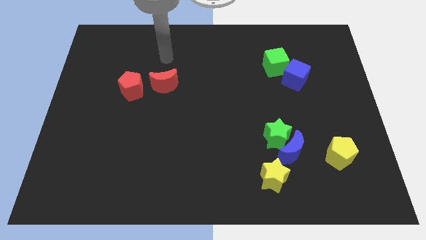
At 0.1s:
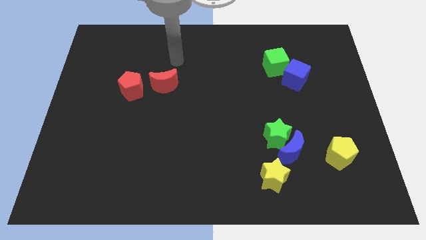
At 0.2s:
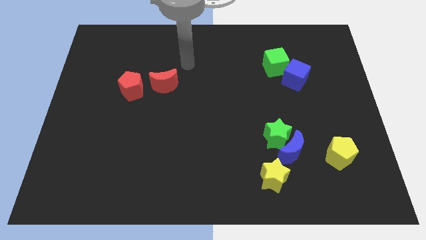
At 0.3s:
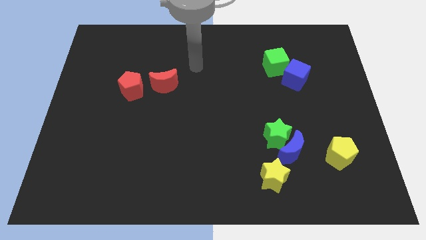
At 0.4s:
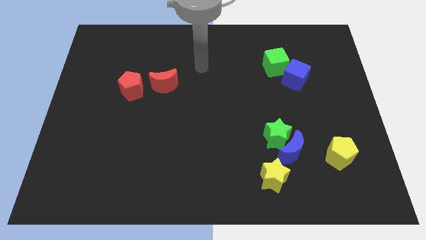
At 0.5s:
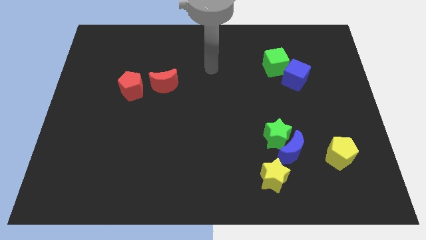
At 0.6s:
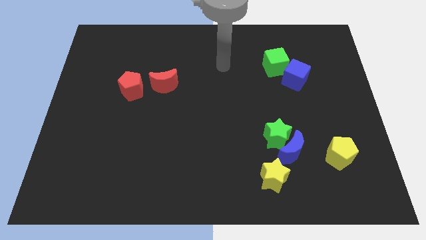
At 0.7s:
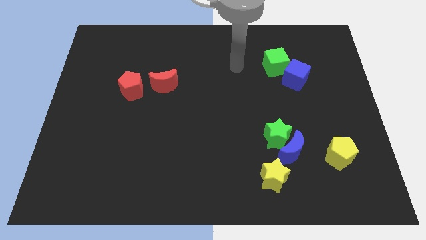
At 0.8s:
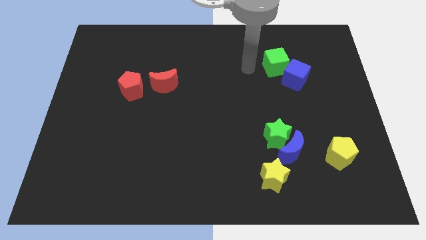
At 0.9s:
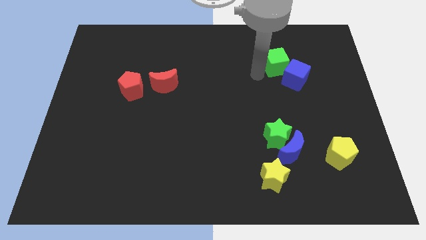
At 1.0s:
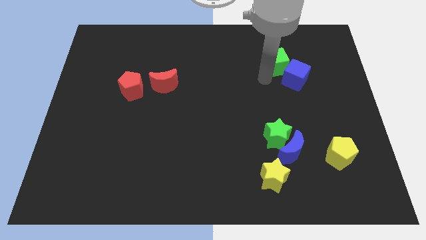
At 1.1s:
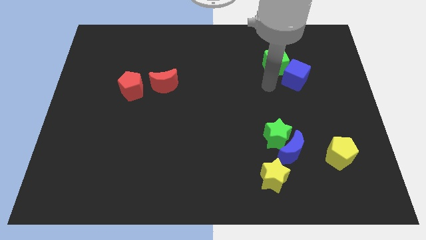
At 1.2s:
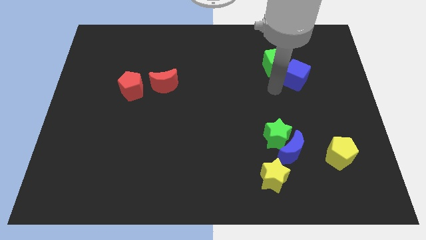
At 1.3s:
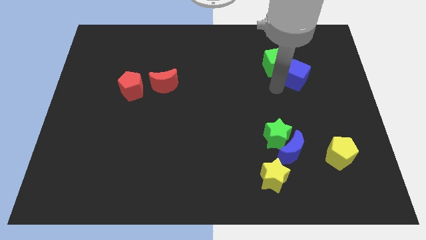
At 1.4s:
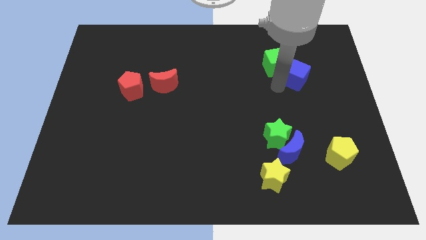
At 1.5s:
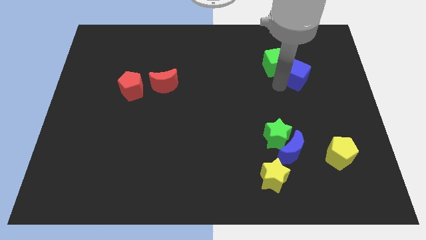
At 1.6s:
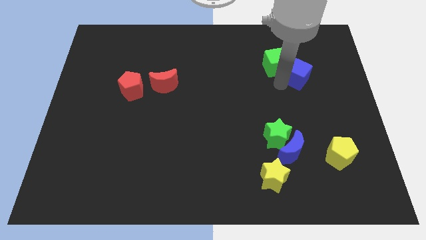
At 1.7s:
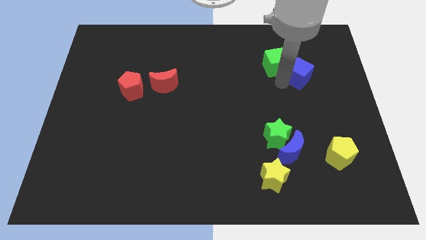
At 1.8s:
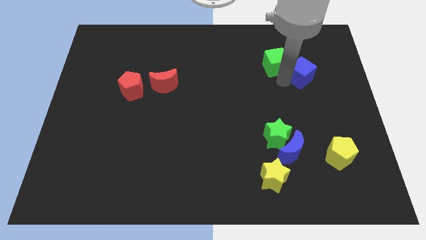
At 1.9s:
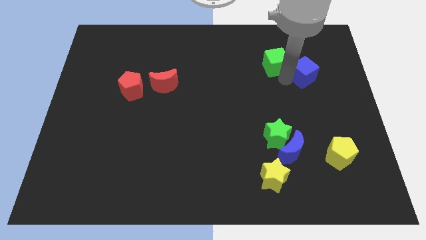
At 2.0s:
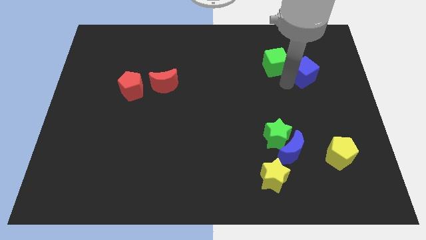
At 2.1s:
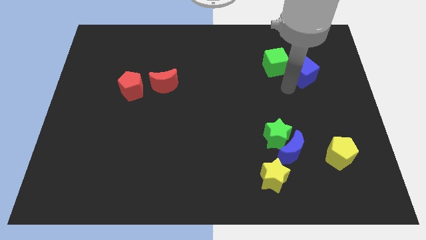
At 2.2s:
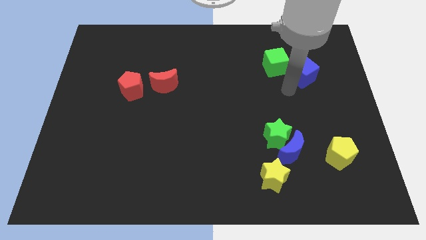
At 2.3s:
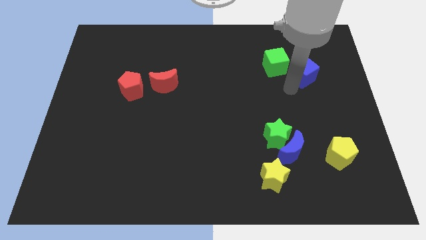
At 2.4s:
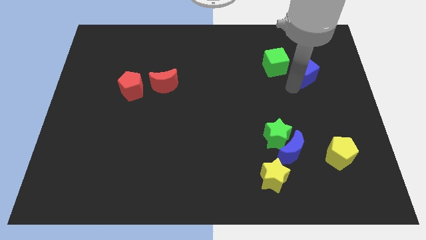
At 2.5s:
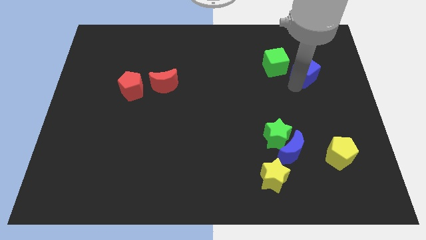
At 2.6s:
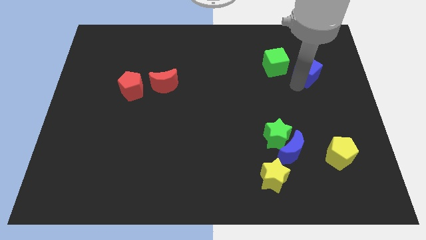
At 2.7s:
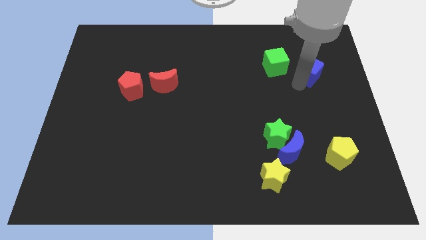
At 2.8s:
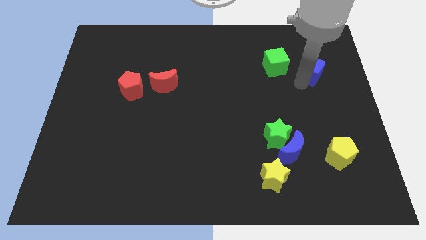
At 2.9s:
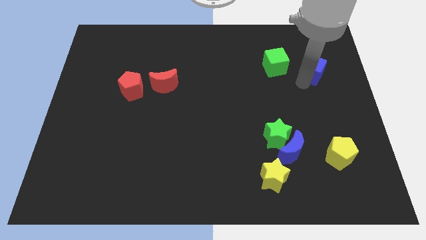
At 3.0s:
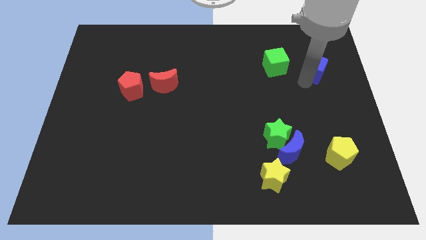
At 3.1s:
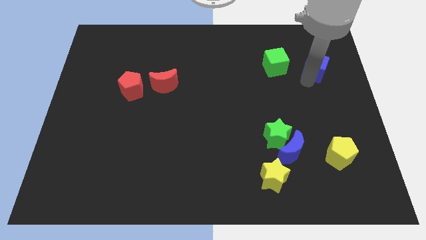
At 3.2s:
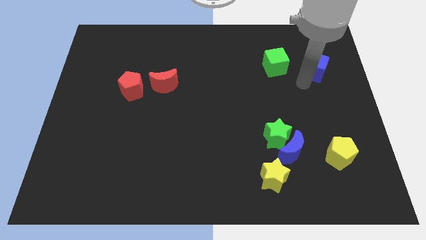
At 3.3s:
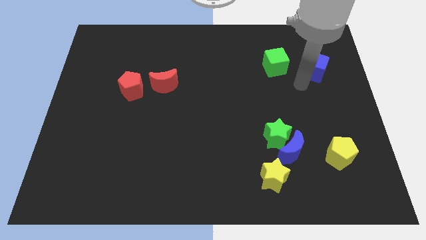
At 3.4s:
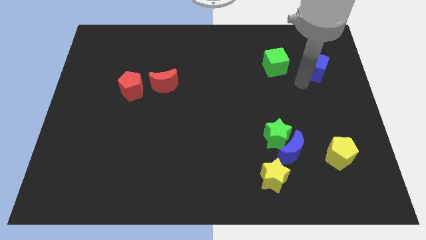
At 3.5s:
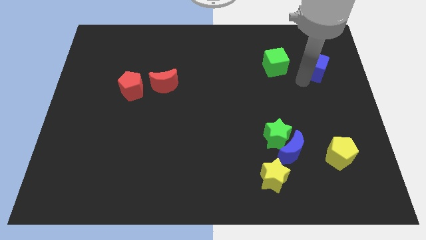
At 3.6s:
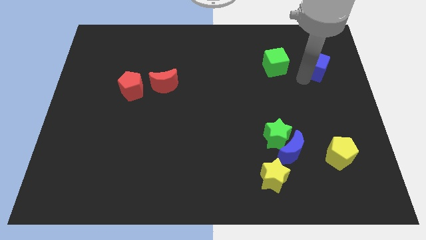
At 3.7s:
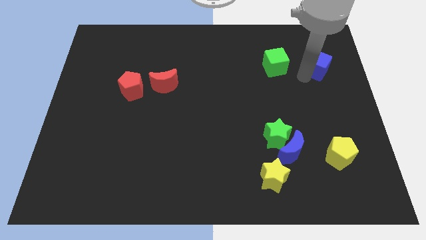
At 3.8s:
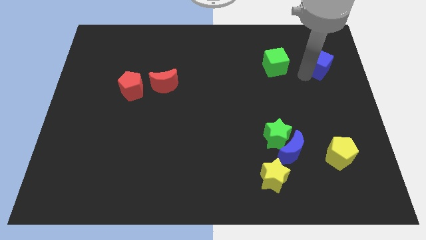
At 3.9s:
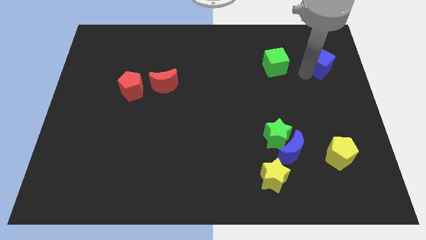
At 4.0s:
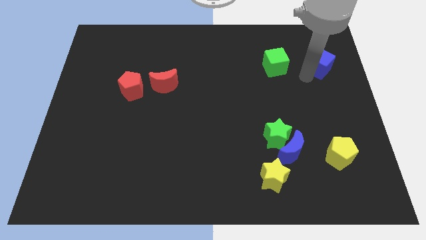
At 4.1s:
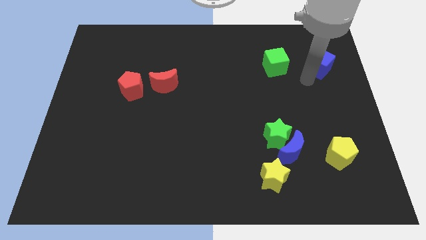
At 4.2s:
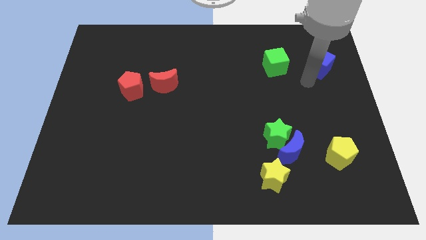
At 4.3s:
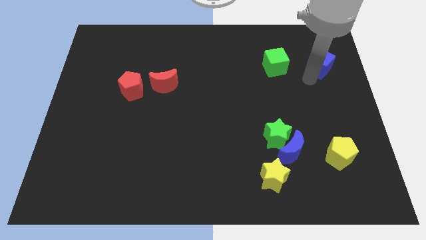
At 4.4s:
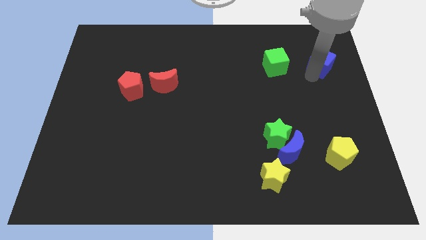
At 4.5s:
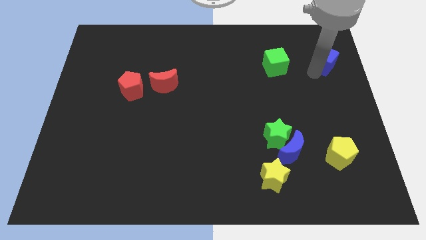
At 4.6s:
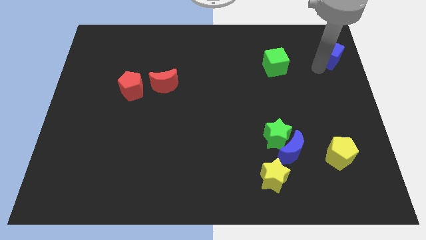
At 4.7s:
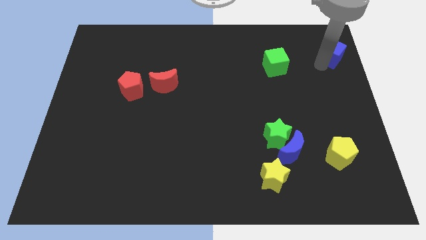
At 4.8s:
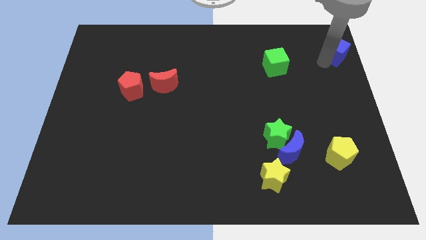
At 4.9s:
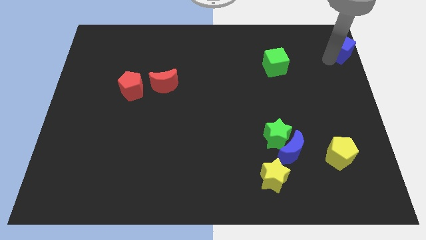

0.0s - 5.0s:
push the blue cube to the top right of the board

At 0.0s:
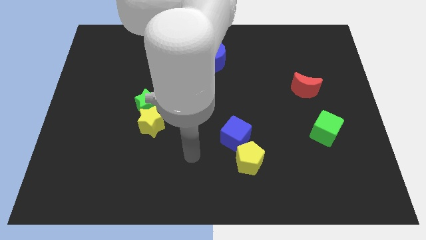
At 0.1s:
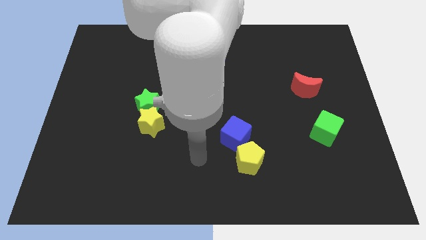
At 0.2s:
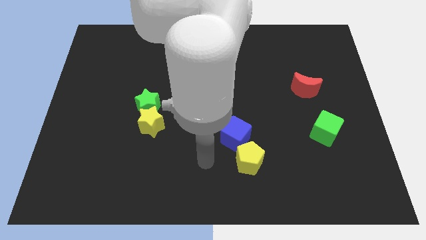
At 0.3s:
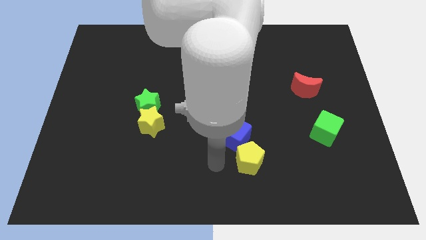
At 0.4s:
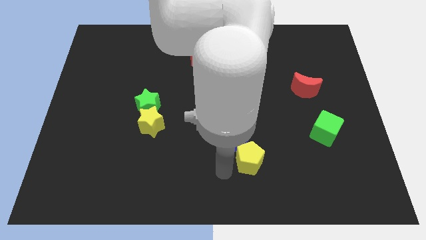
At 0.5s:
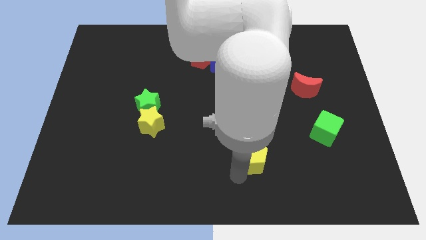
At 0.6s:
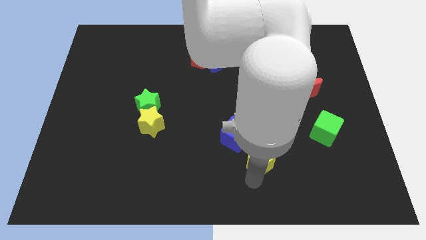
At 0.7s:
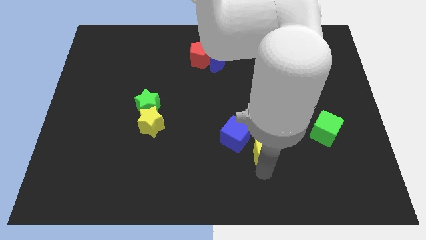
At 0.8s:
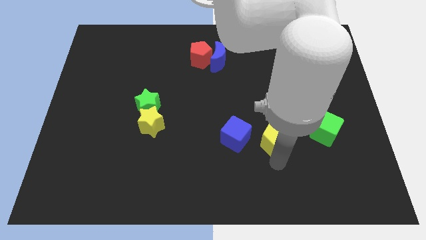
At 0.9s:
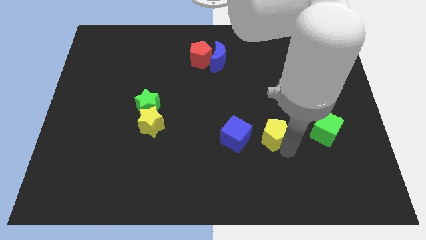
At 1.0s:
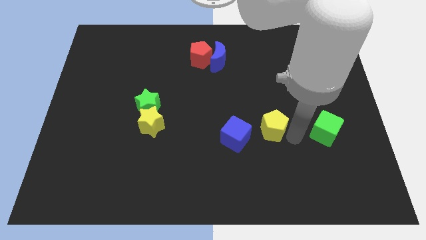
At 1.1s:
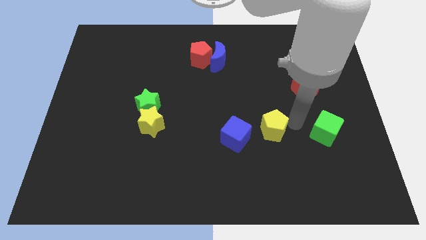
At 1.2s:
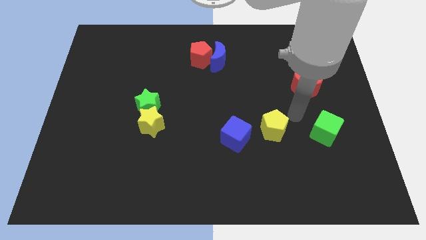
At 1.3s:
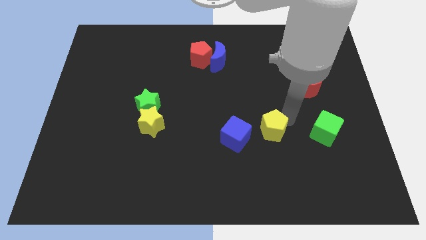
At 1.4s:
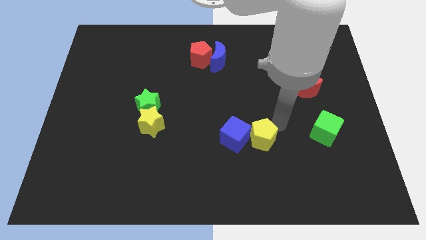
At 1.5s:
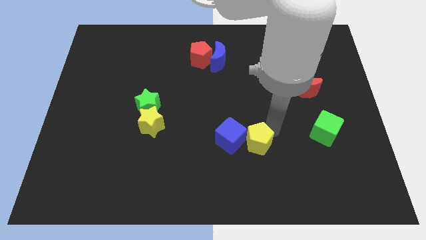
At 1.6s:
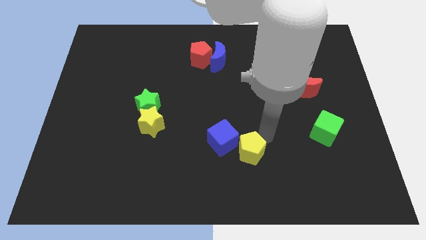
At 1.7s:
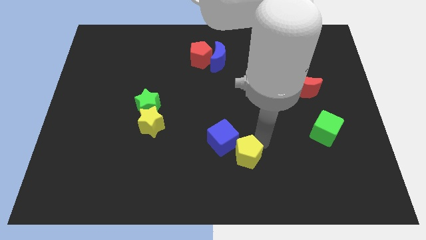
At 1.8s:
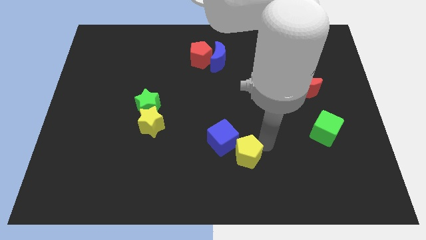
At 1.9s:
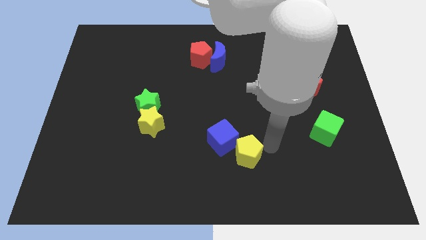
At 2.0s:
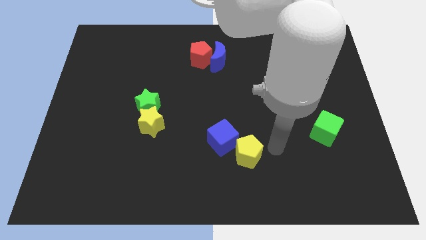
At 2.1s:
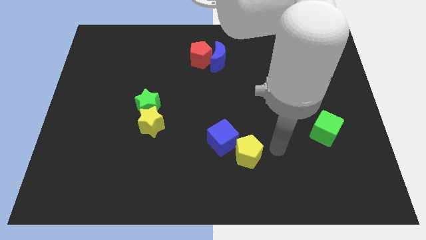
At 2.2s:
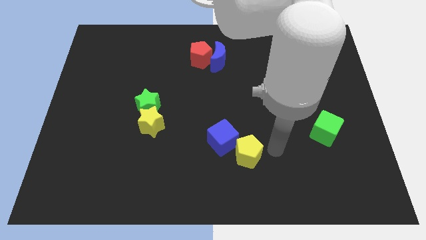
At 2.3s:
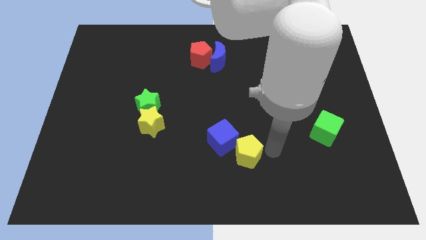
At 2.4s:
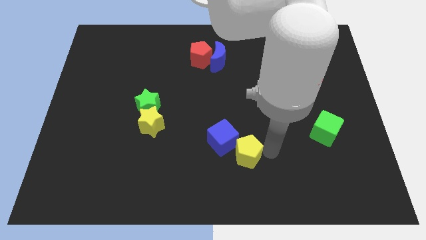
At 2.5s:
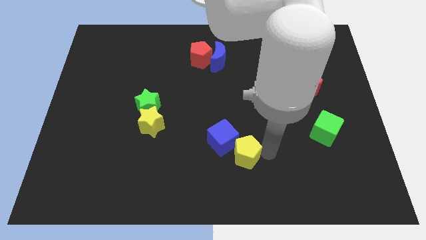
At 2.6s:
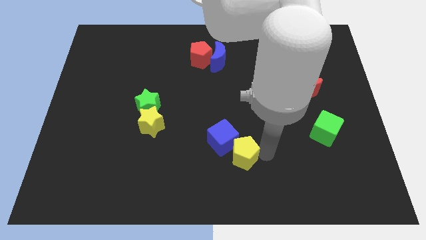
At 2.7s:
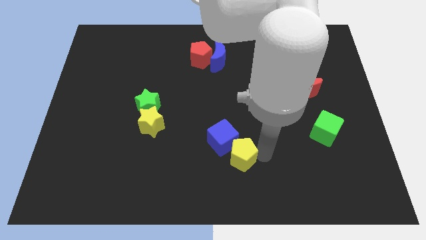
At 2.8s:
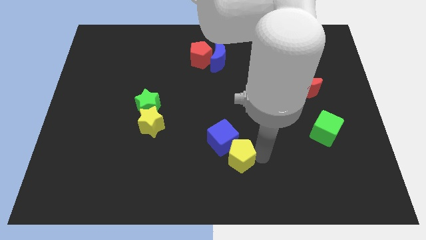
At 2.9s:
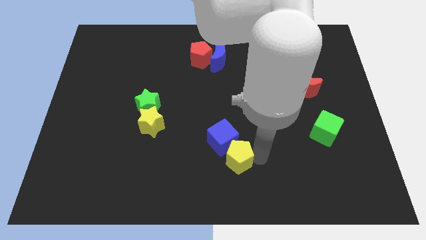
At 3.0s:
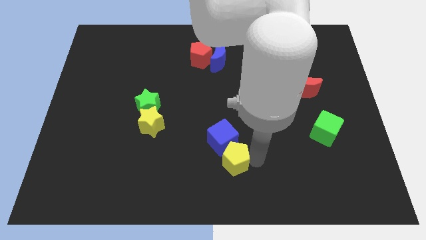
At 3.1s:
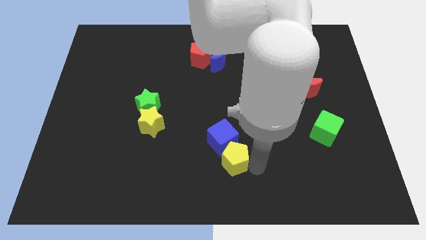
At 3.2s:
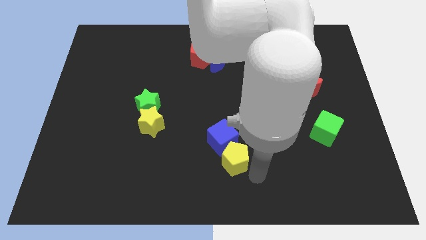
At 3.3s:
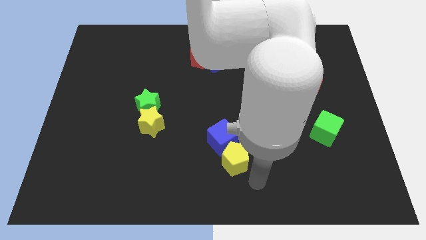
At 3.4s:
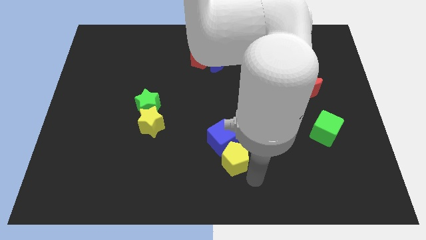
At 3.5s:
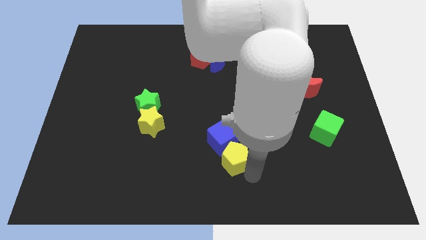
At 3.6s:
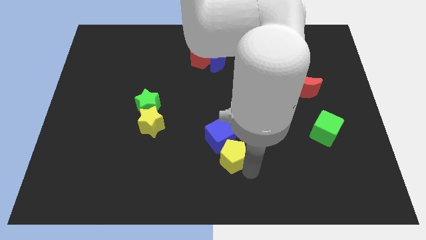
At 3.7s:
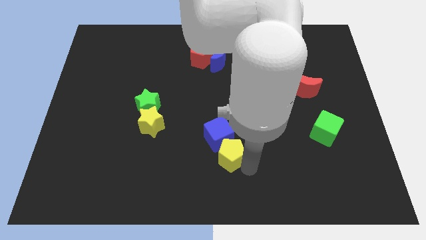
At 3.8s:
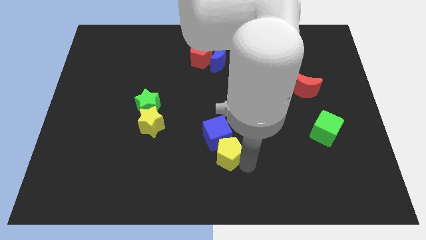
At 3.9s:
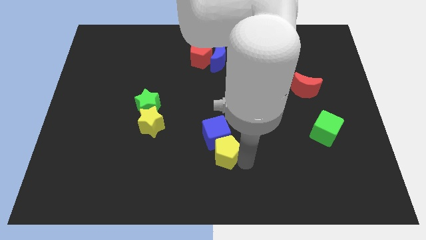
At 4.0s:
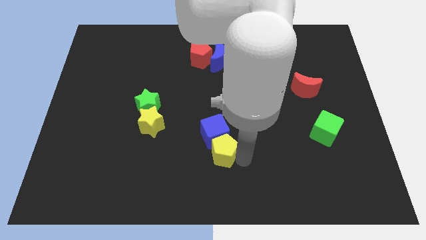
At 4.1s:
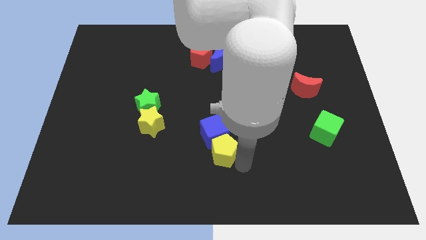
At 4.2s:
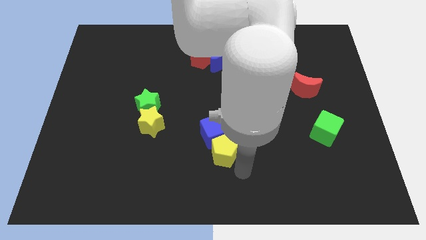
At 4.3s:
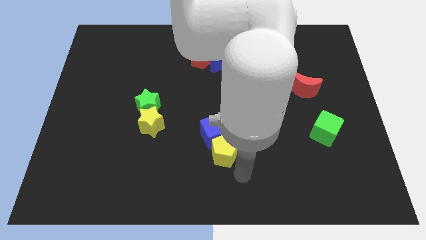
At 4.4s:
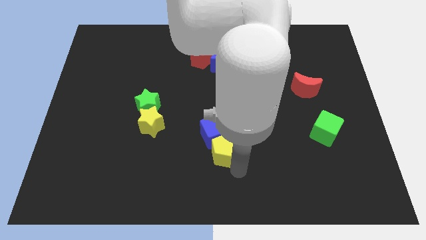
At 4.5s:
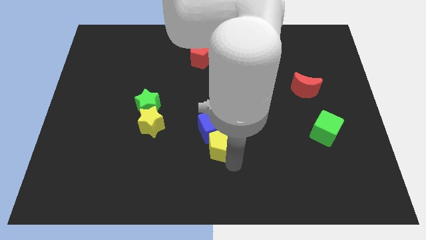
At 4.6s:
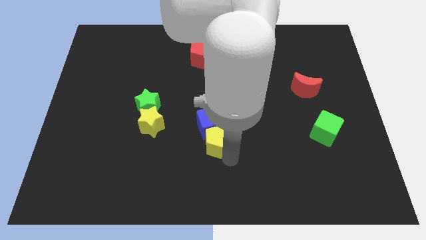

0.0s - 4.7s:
put the yellow pentagon to the middle of the board
